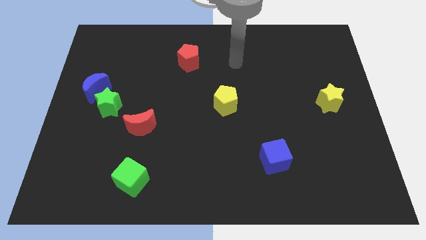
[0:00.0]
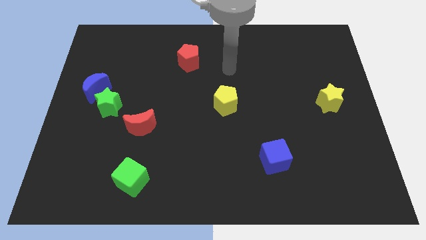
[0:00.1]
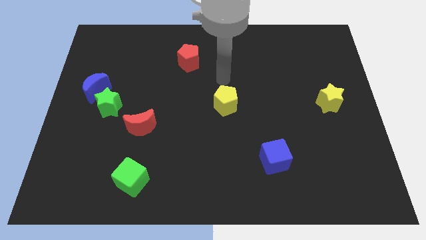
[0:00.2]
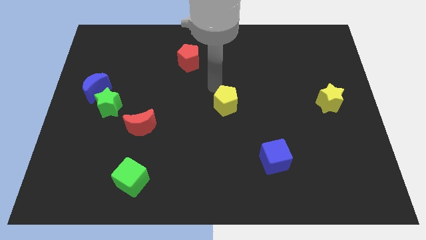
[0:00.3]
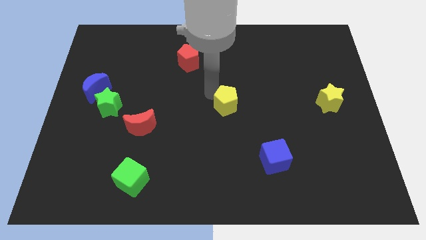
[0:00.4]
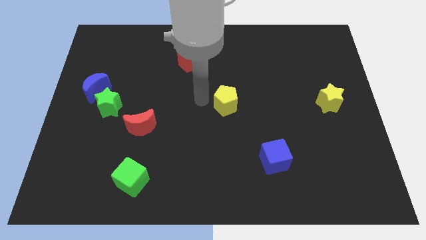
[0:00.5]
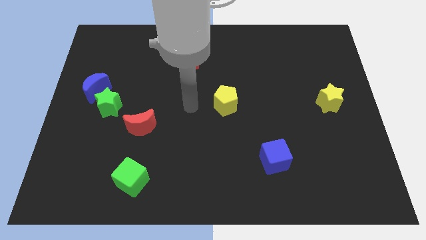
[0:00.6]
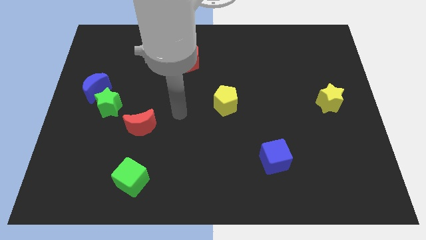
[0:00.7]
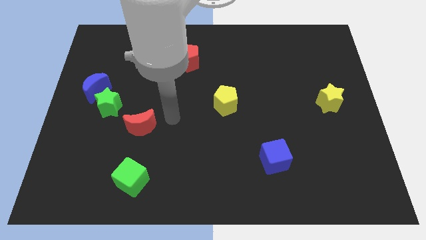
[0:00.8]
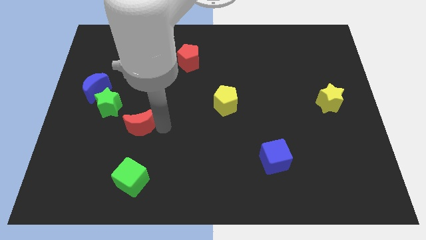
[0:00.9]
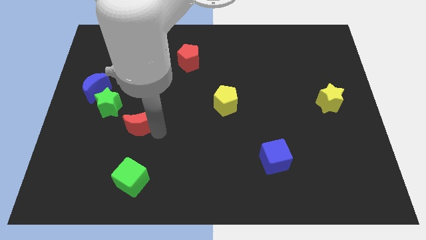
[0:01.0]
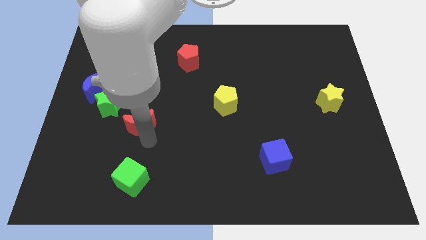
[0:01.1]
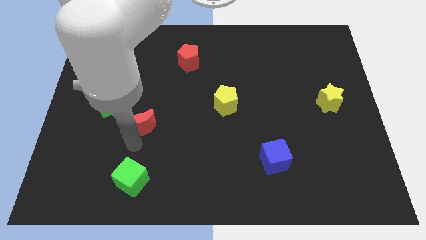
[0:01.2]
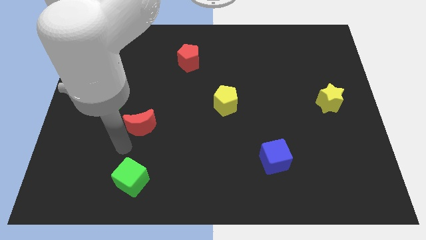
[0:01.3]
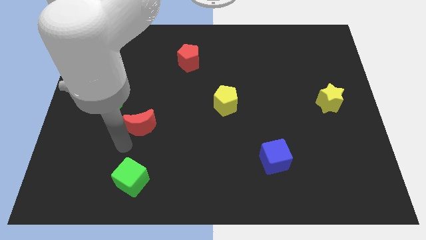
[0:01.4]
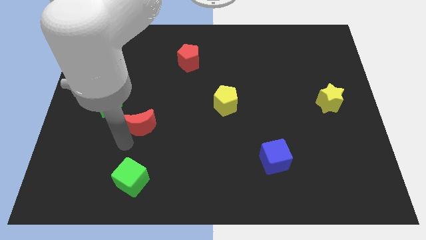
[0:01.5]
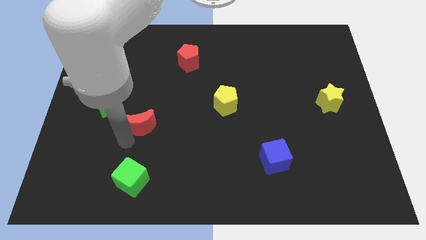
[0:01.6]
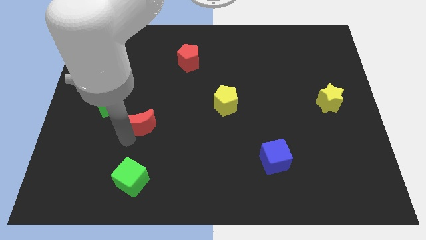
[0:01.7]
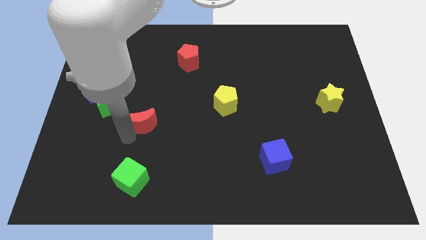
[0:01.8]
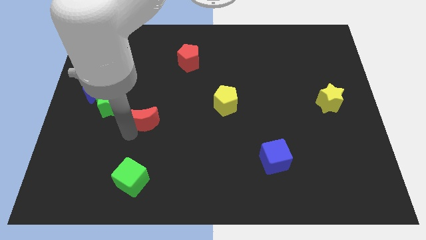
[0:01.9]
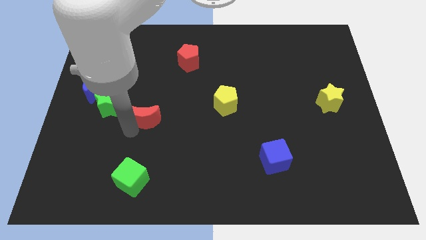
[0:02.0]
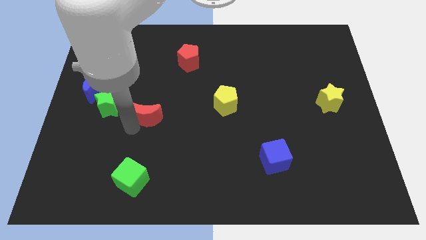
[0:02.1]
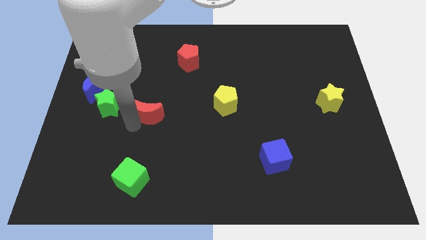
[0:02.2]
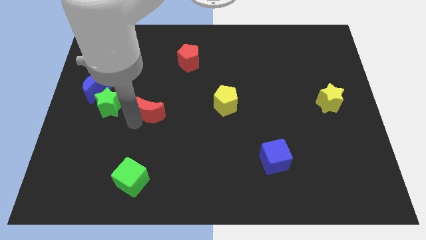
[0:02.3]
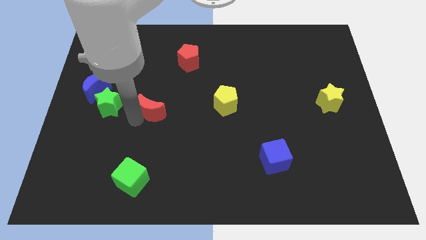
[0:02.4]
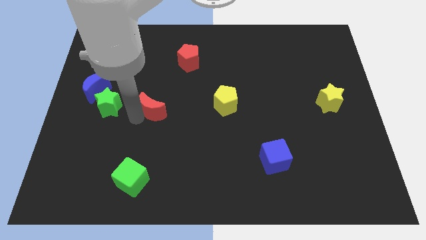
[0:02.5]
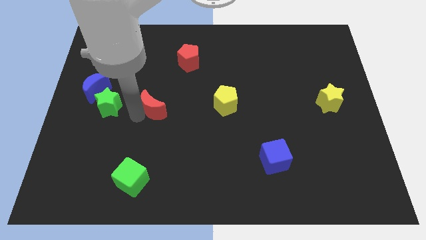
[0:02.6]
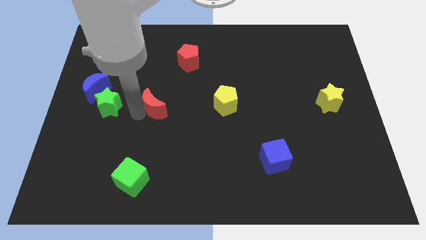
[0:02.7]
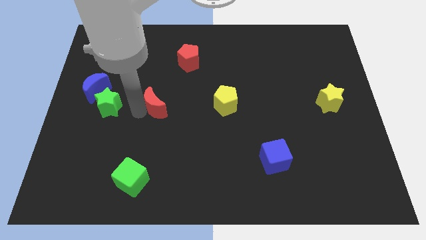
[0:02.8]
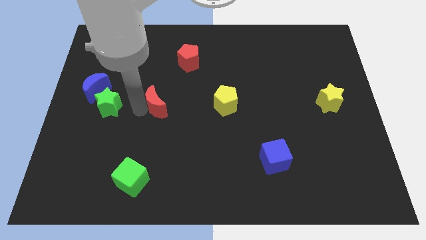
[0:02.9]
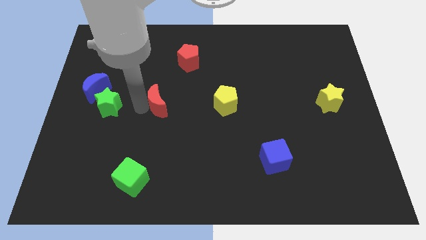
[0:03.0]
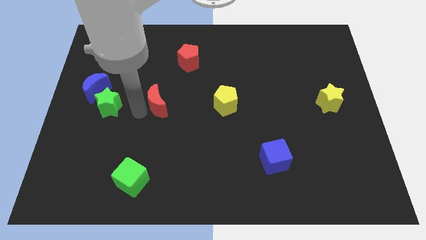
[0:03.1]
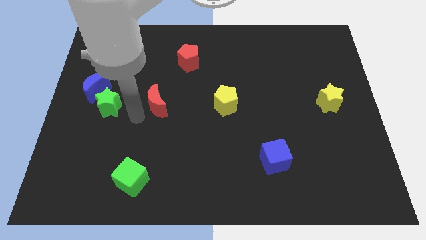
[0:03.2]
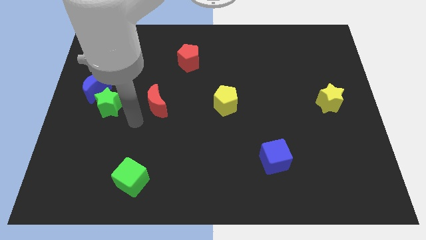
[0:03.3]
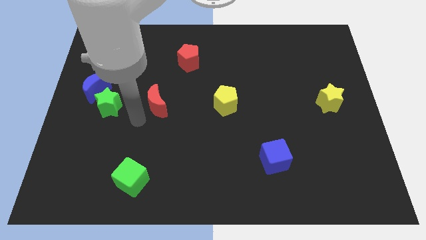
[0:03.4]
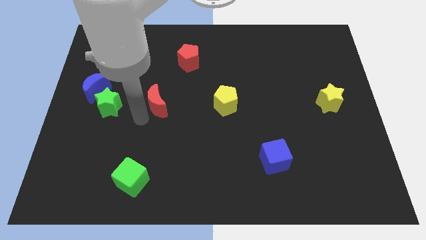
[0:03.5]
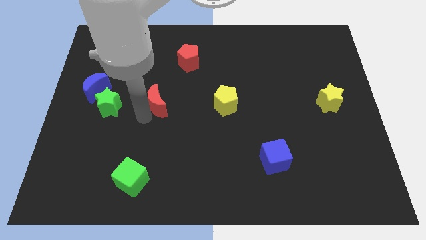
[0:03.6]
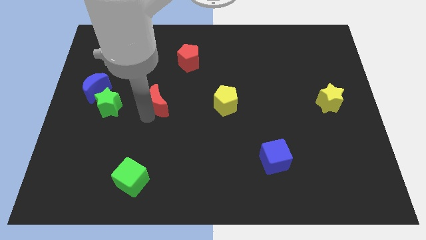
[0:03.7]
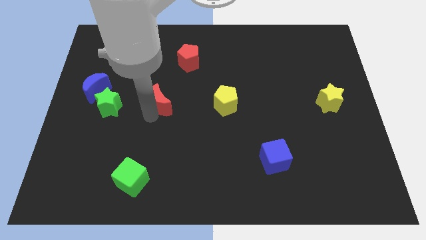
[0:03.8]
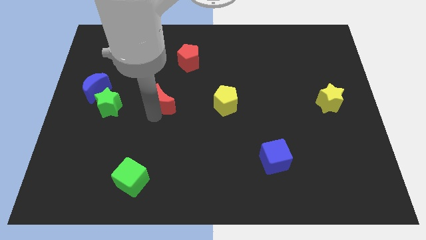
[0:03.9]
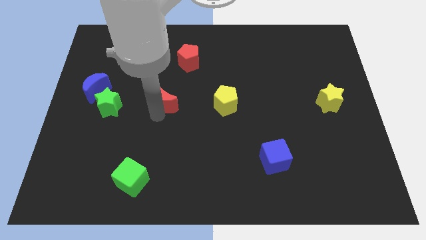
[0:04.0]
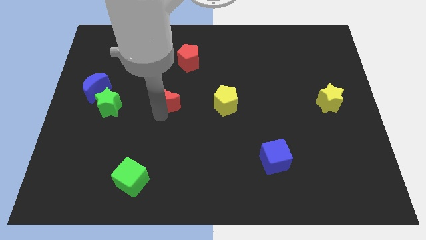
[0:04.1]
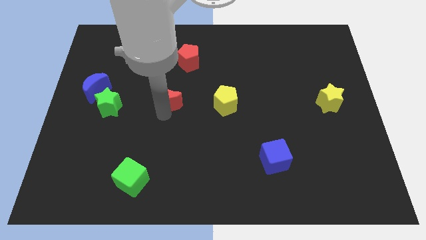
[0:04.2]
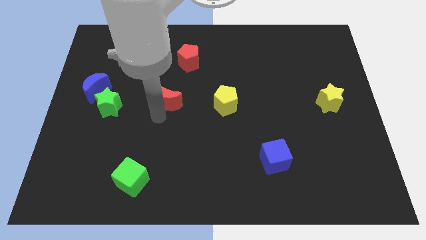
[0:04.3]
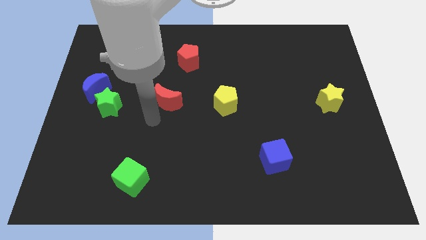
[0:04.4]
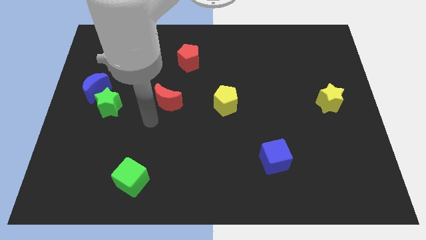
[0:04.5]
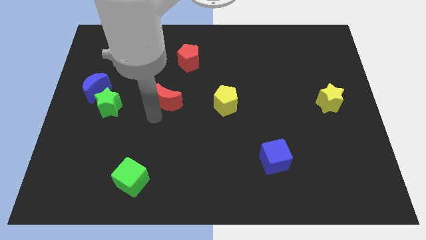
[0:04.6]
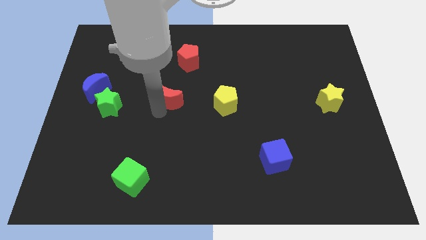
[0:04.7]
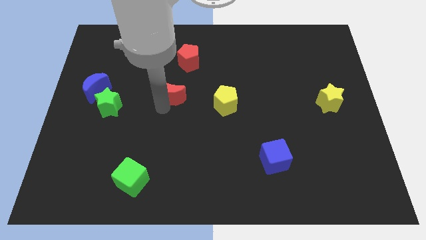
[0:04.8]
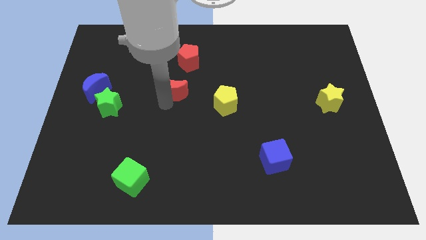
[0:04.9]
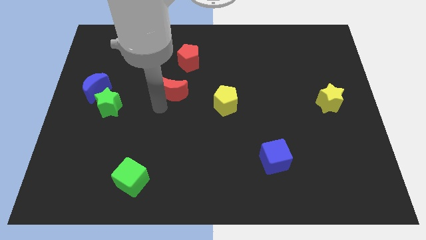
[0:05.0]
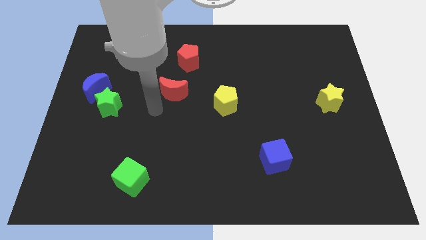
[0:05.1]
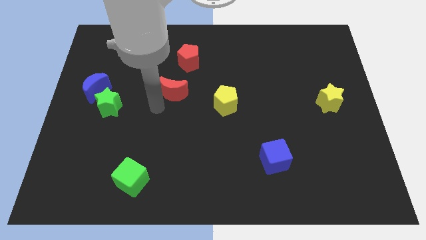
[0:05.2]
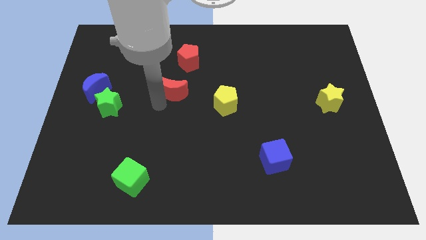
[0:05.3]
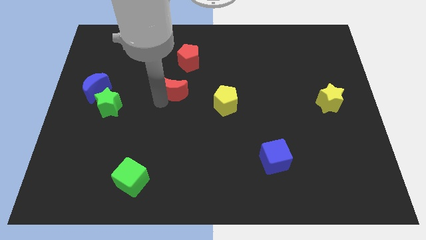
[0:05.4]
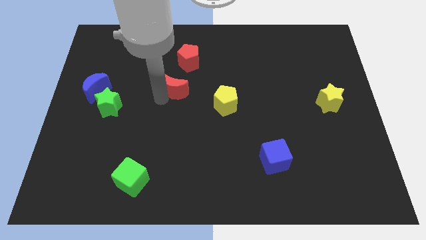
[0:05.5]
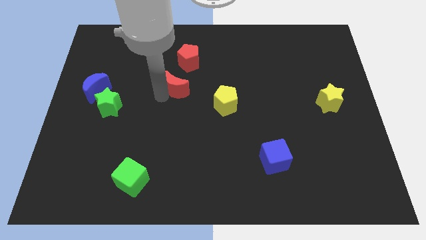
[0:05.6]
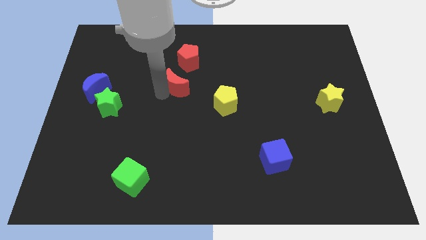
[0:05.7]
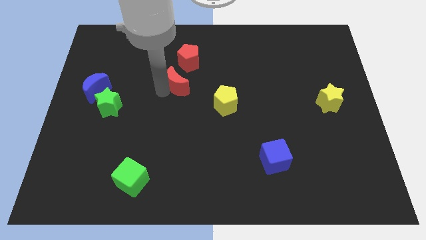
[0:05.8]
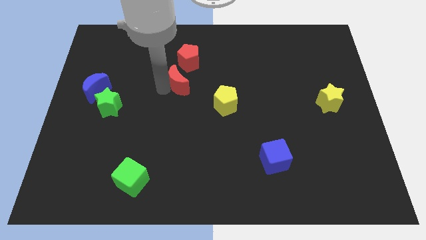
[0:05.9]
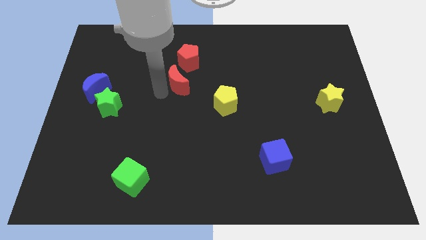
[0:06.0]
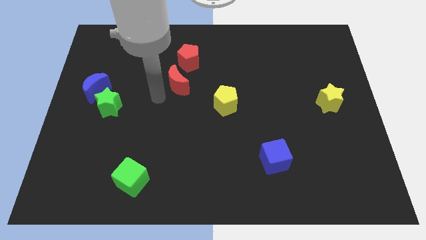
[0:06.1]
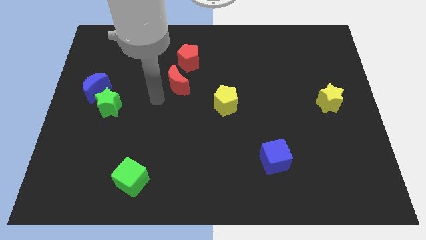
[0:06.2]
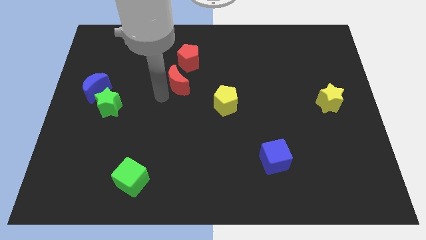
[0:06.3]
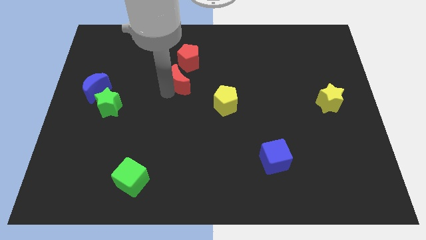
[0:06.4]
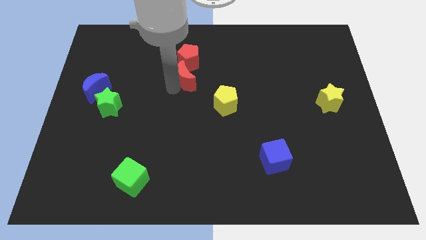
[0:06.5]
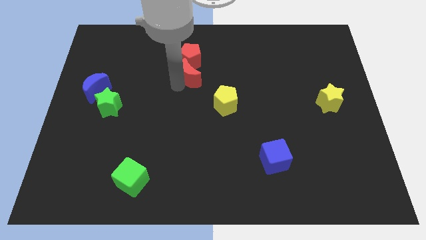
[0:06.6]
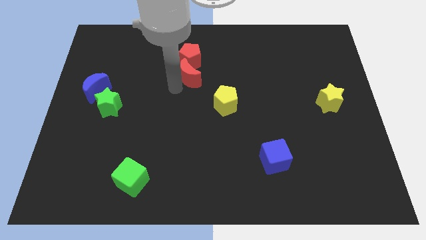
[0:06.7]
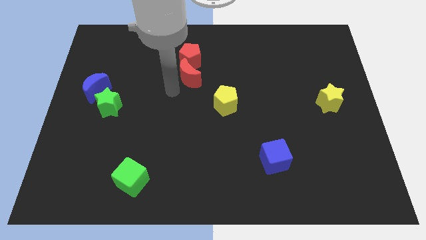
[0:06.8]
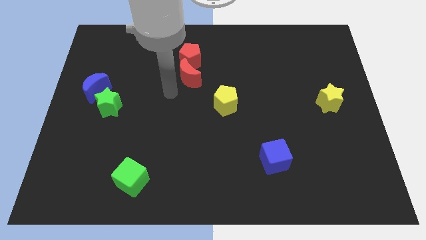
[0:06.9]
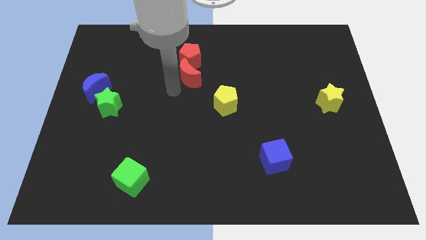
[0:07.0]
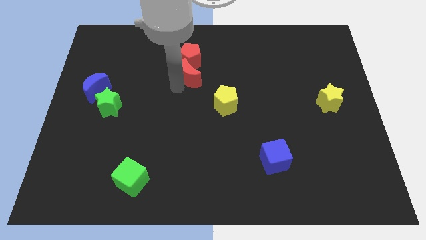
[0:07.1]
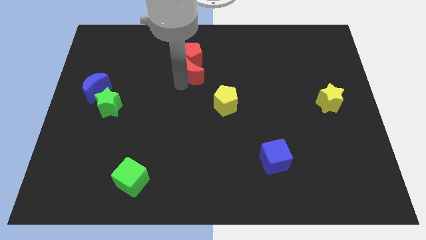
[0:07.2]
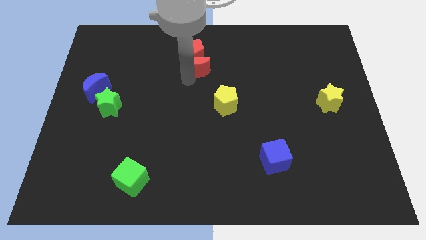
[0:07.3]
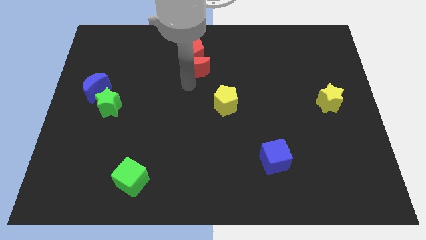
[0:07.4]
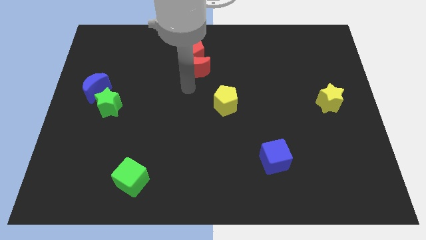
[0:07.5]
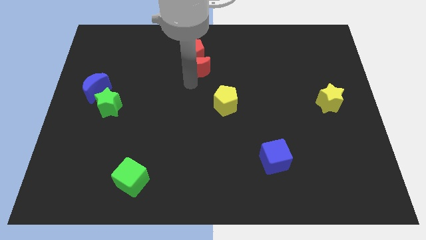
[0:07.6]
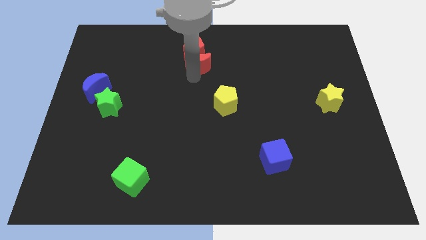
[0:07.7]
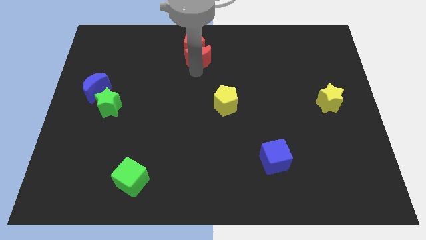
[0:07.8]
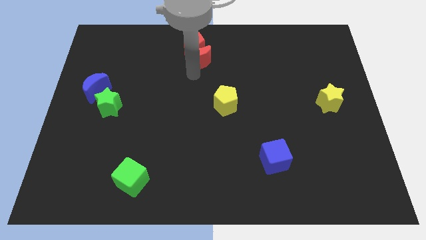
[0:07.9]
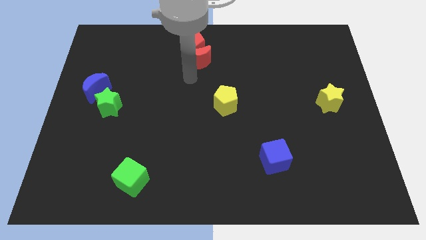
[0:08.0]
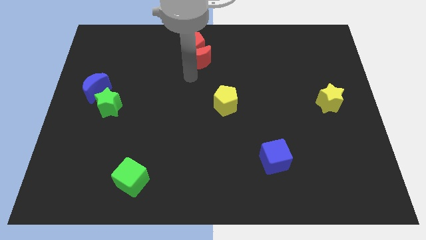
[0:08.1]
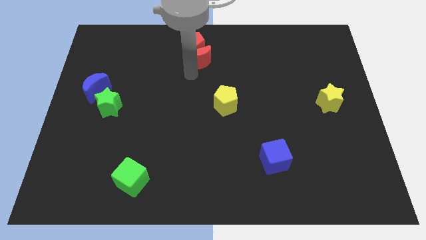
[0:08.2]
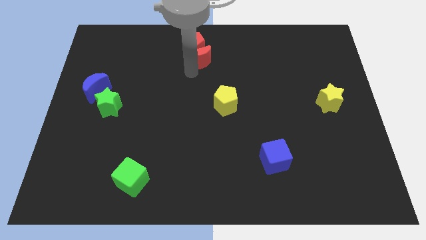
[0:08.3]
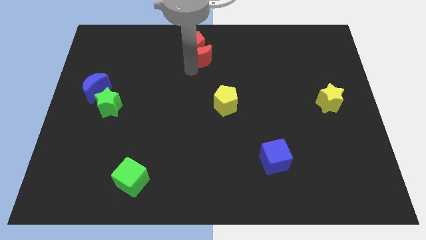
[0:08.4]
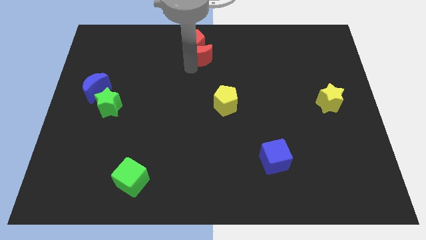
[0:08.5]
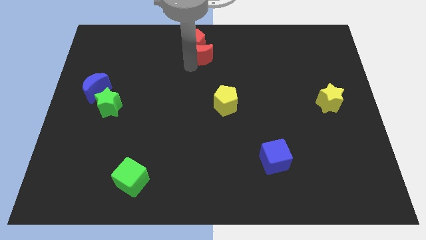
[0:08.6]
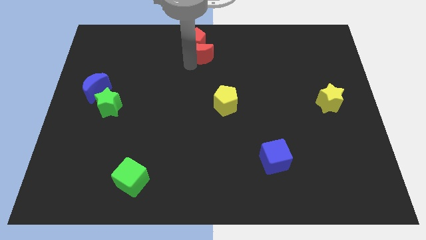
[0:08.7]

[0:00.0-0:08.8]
move the red moon to the towards your base
